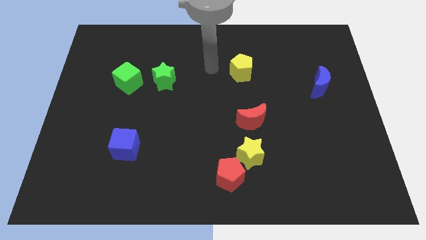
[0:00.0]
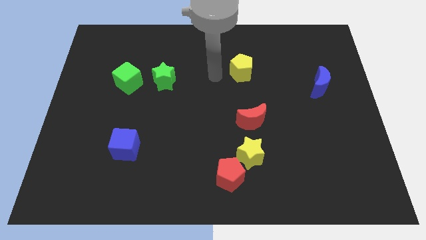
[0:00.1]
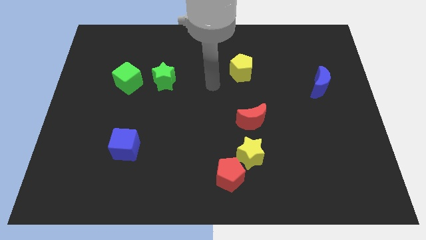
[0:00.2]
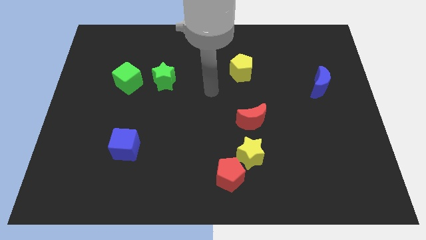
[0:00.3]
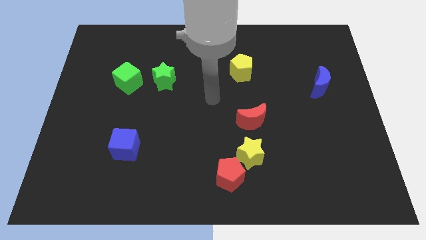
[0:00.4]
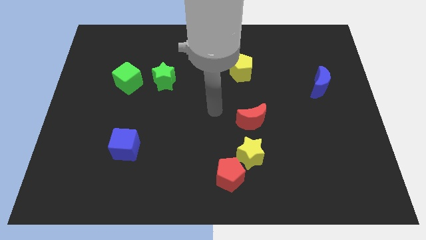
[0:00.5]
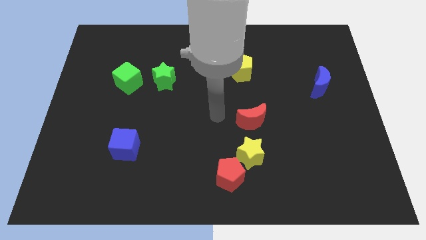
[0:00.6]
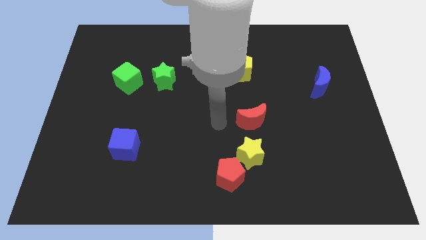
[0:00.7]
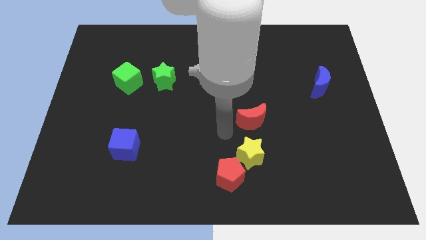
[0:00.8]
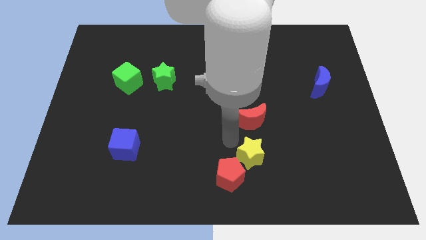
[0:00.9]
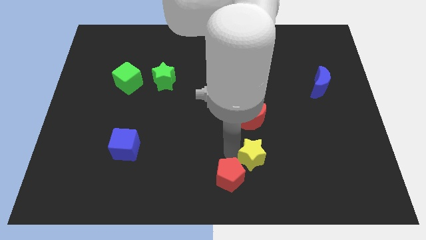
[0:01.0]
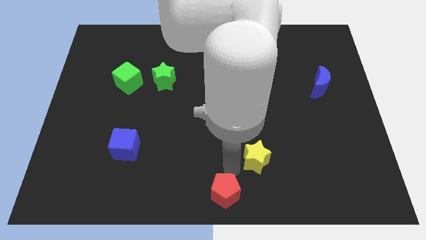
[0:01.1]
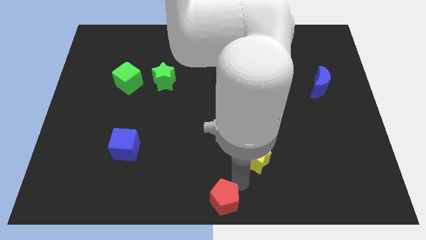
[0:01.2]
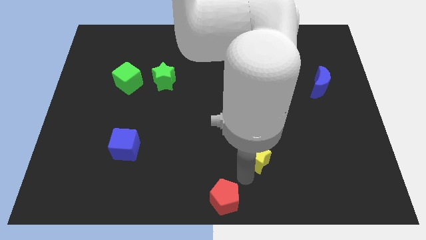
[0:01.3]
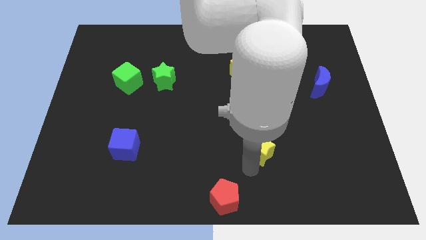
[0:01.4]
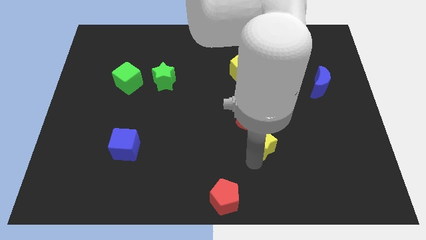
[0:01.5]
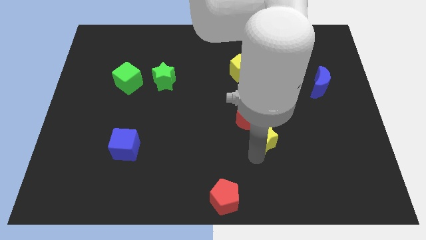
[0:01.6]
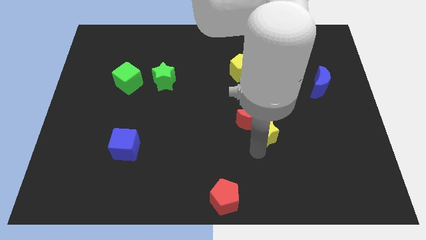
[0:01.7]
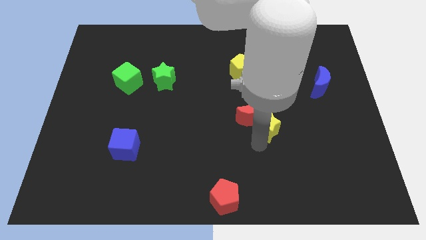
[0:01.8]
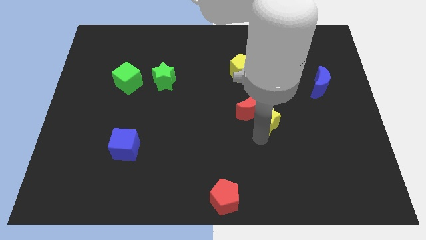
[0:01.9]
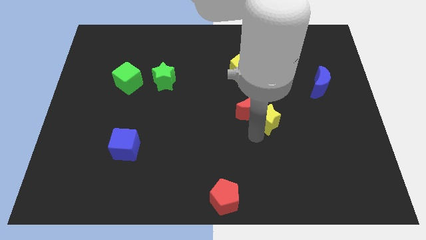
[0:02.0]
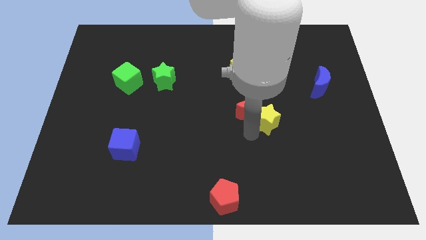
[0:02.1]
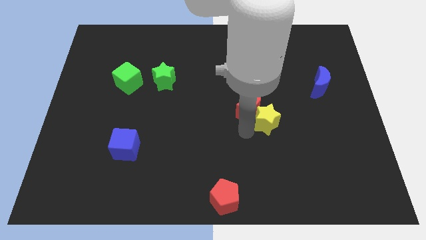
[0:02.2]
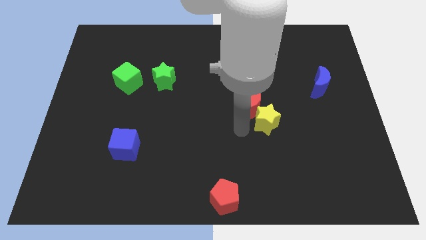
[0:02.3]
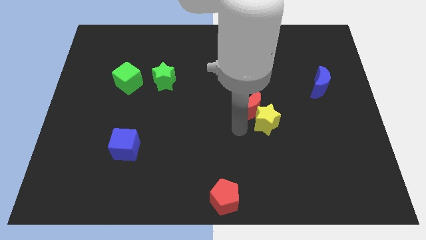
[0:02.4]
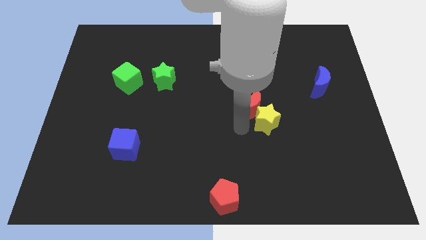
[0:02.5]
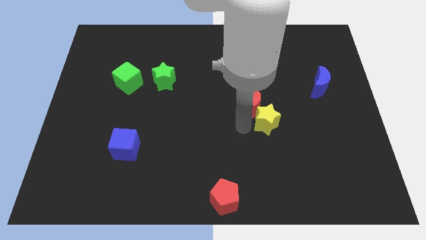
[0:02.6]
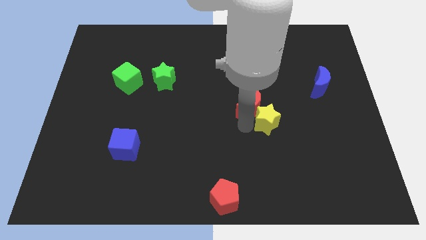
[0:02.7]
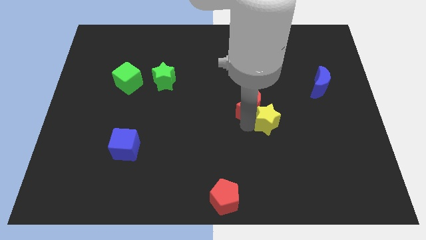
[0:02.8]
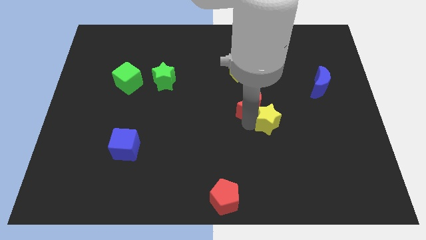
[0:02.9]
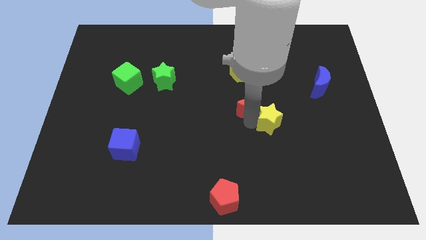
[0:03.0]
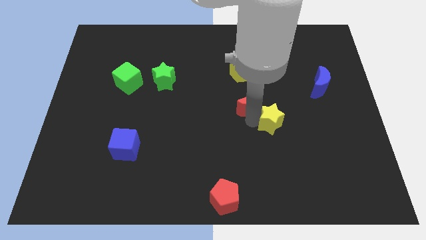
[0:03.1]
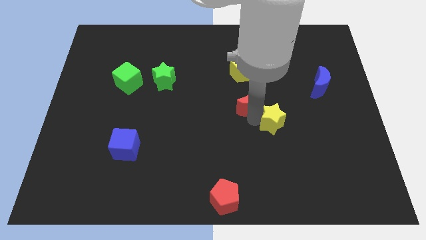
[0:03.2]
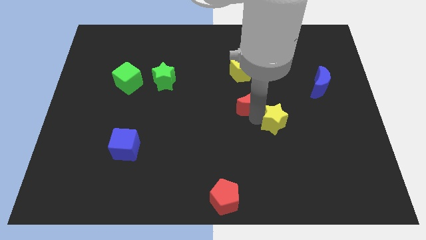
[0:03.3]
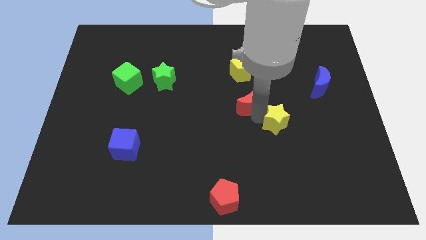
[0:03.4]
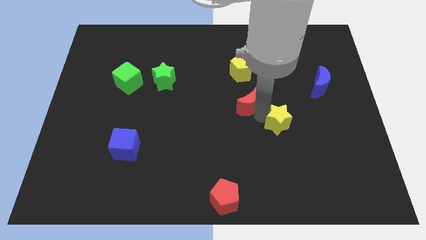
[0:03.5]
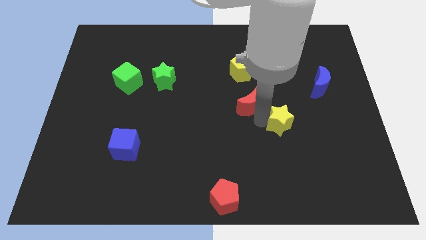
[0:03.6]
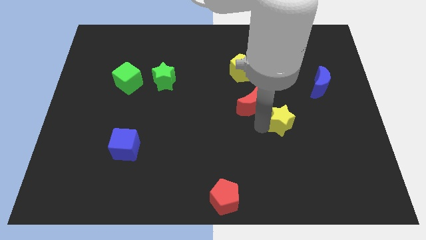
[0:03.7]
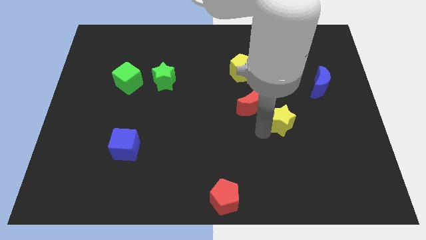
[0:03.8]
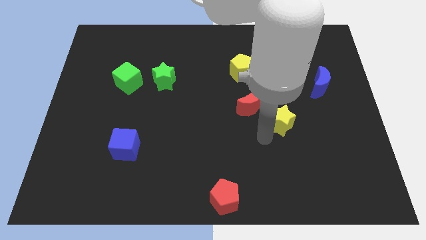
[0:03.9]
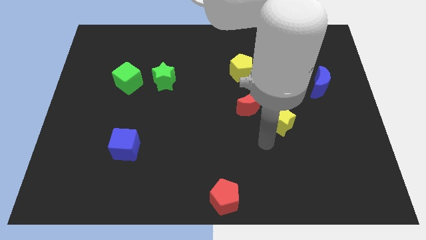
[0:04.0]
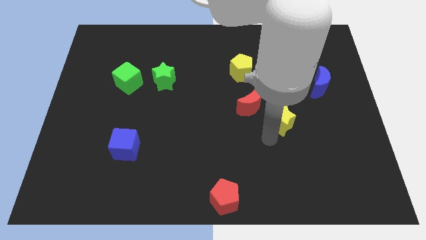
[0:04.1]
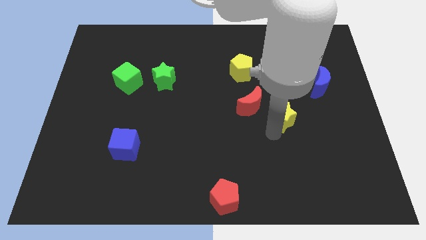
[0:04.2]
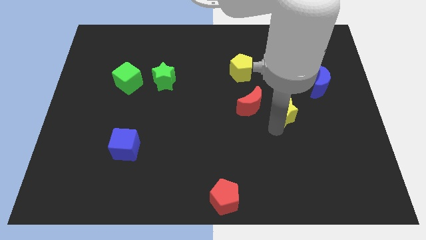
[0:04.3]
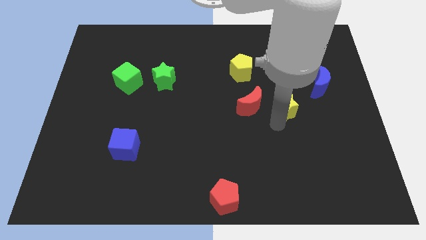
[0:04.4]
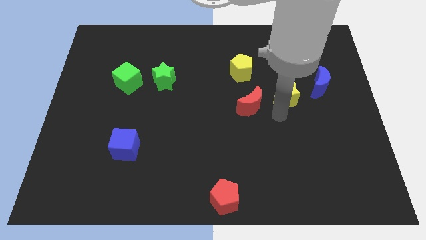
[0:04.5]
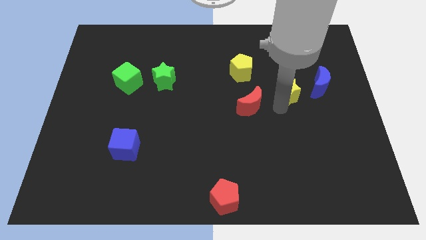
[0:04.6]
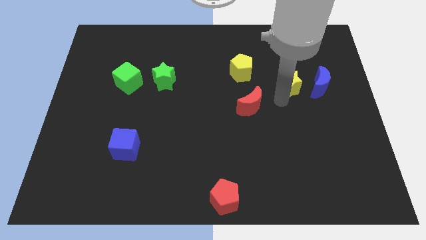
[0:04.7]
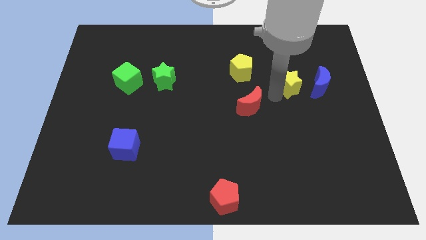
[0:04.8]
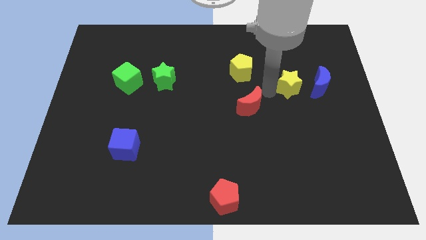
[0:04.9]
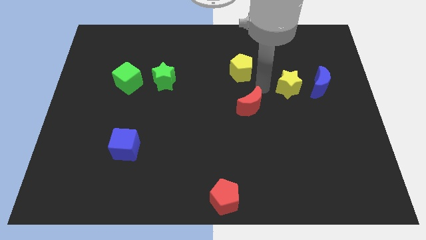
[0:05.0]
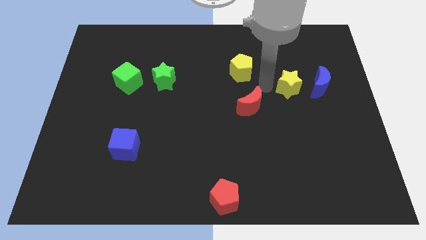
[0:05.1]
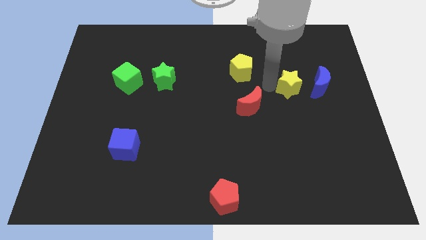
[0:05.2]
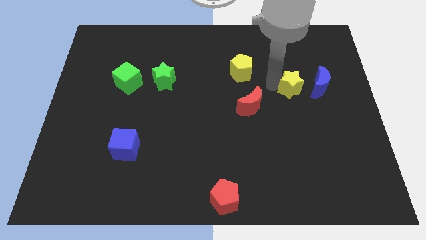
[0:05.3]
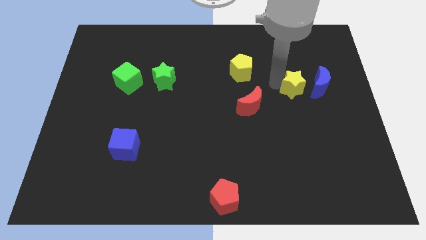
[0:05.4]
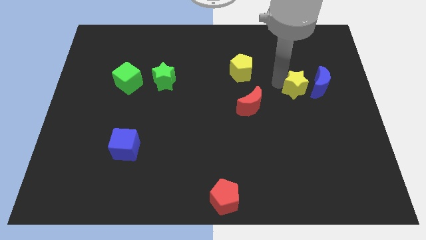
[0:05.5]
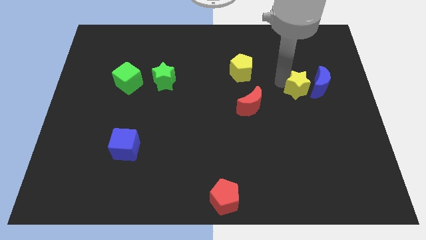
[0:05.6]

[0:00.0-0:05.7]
push the yellow star next to the blue moon

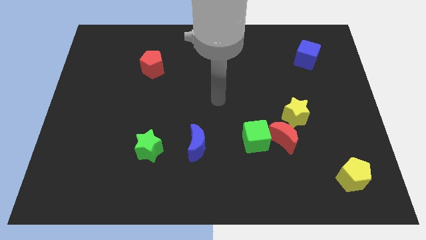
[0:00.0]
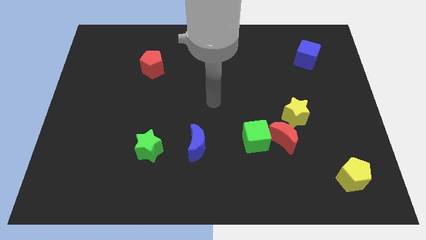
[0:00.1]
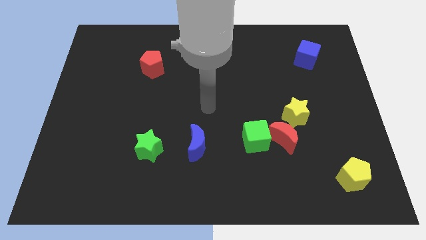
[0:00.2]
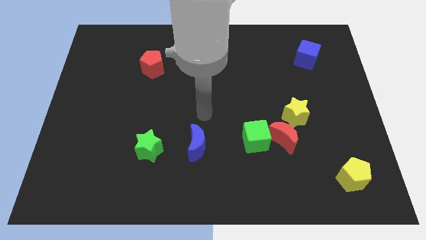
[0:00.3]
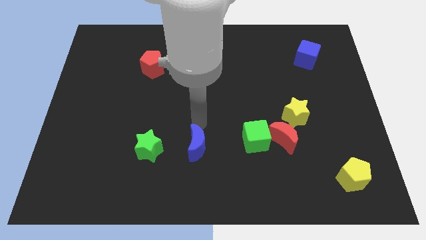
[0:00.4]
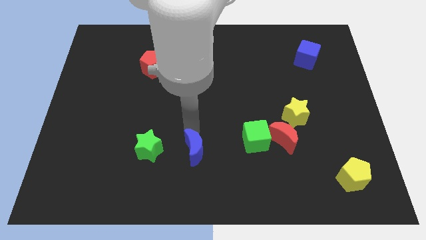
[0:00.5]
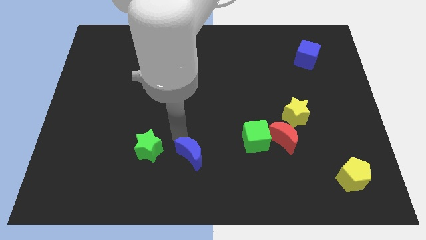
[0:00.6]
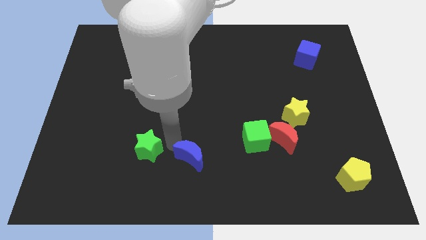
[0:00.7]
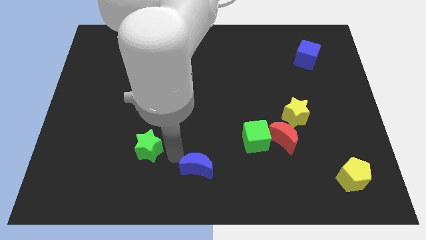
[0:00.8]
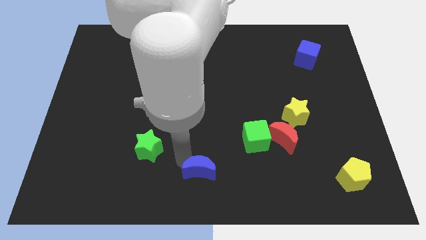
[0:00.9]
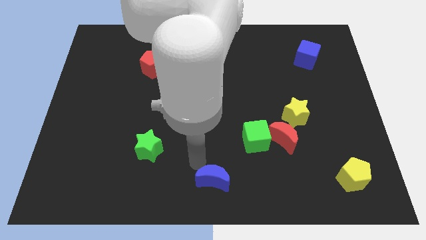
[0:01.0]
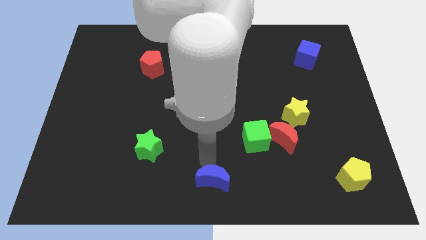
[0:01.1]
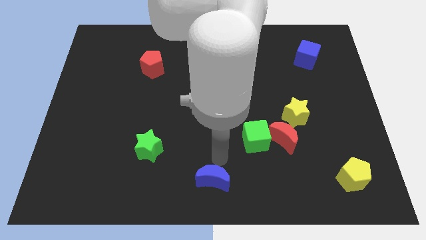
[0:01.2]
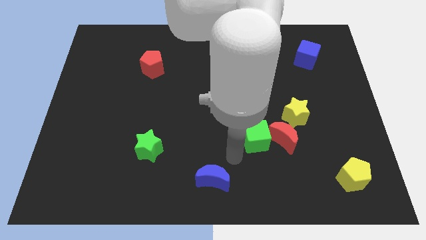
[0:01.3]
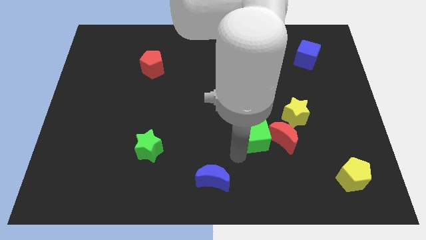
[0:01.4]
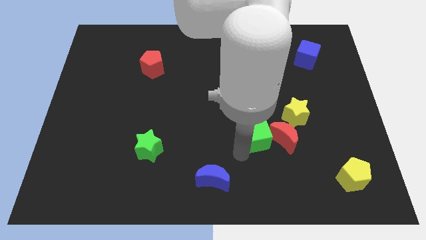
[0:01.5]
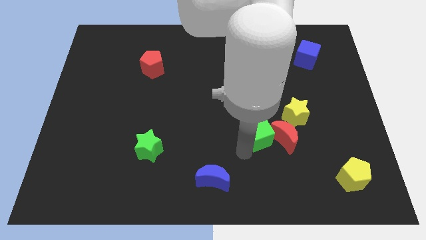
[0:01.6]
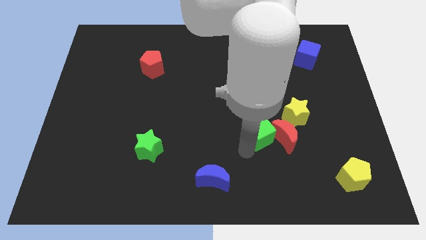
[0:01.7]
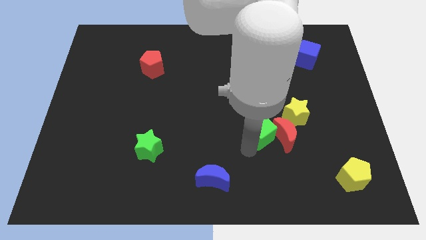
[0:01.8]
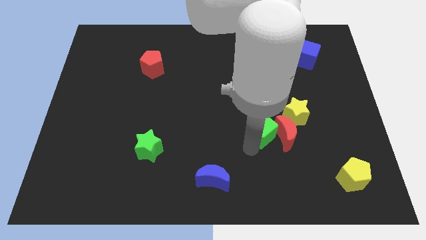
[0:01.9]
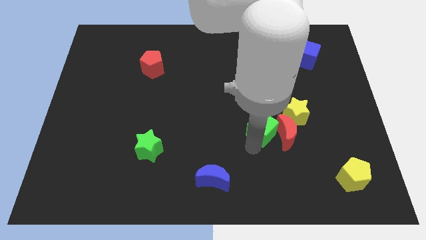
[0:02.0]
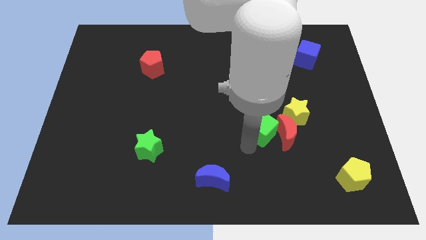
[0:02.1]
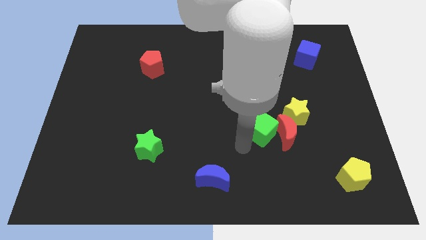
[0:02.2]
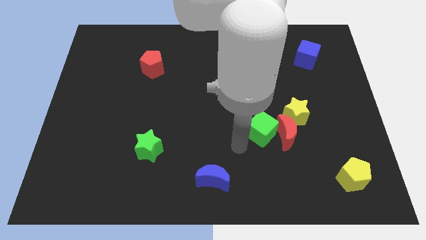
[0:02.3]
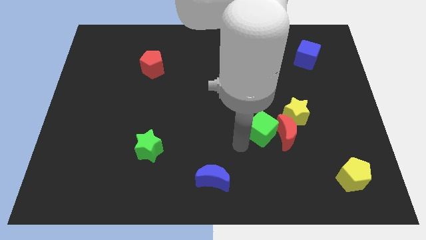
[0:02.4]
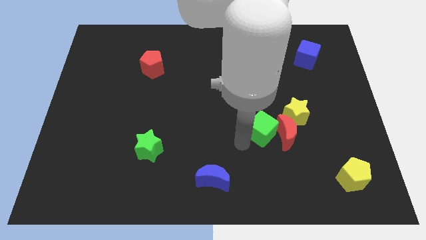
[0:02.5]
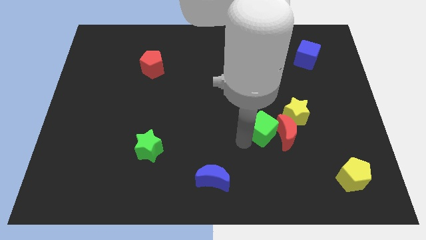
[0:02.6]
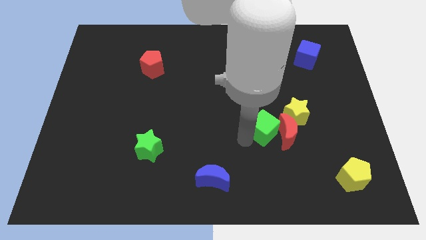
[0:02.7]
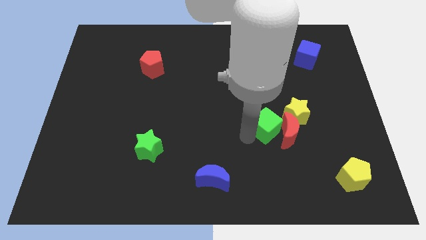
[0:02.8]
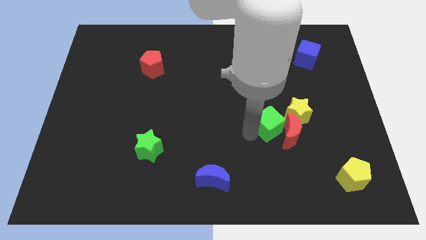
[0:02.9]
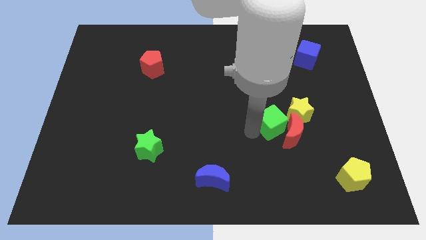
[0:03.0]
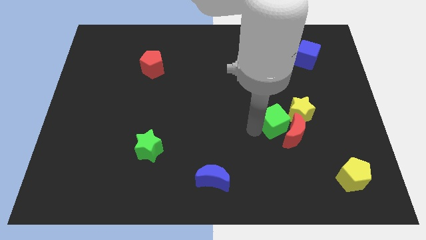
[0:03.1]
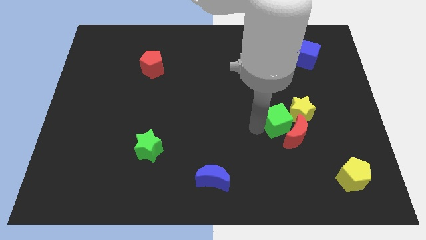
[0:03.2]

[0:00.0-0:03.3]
slide the green cube to the yellow star
